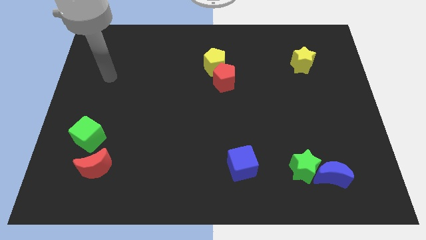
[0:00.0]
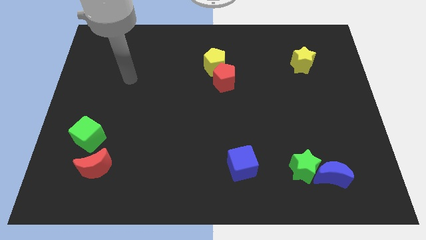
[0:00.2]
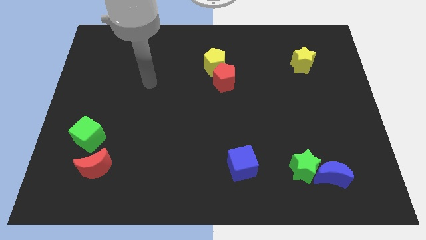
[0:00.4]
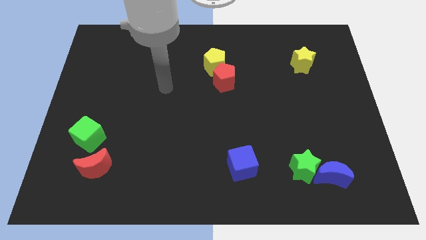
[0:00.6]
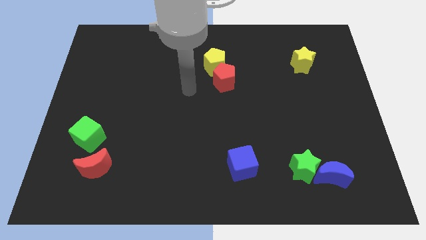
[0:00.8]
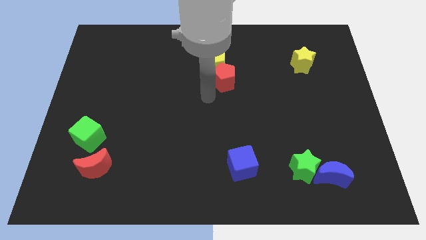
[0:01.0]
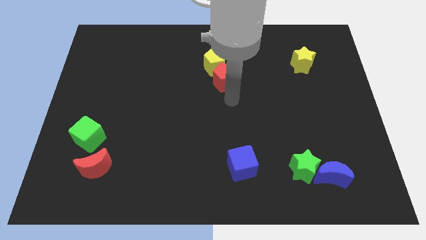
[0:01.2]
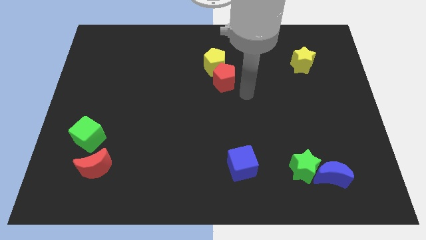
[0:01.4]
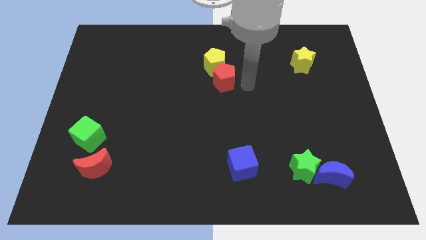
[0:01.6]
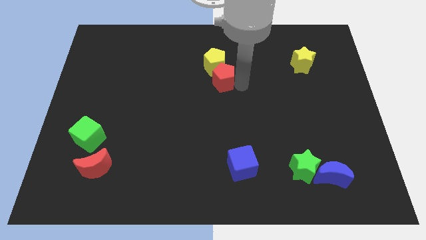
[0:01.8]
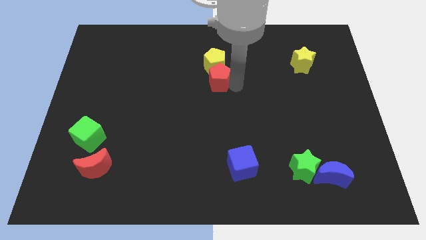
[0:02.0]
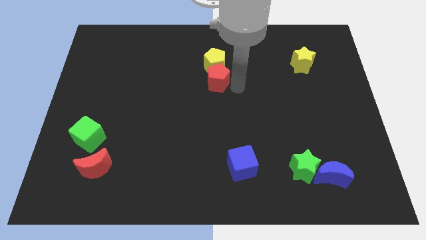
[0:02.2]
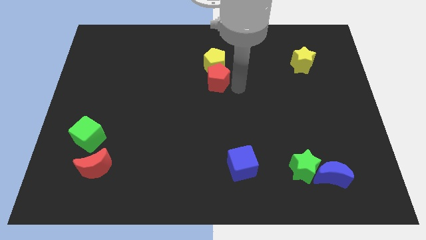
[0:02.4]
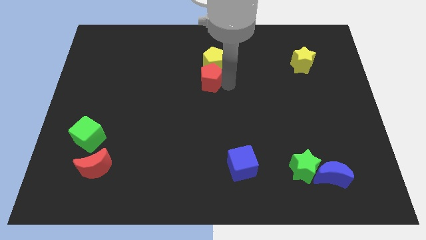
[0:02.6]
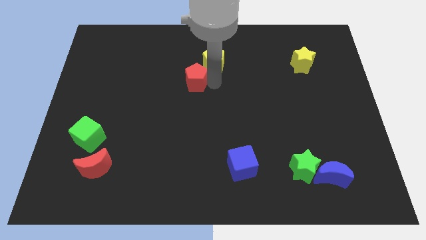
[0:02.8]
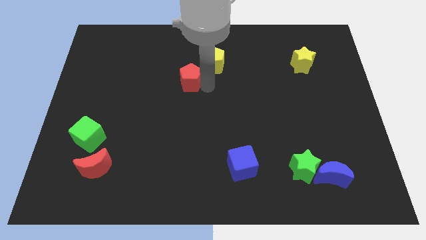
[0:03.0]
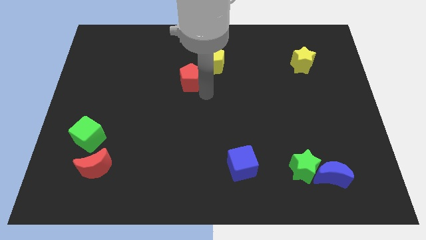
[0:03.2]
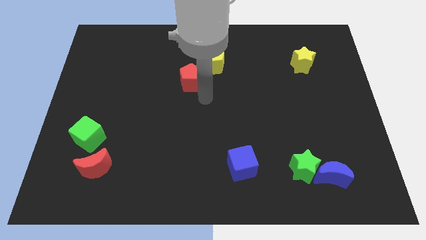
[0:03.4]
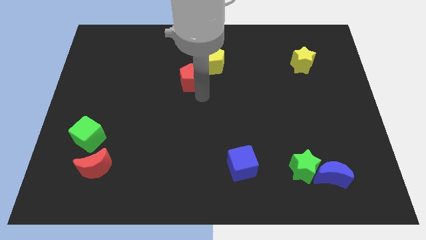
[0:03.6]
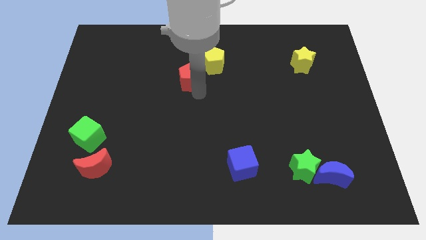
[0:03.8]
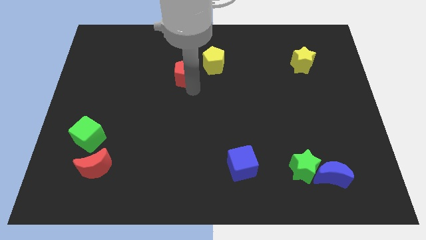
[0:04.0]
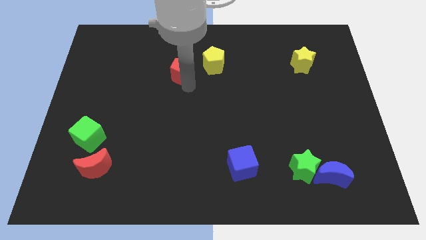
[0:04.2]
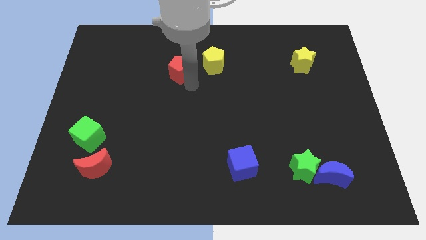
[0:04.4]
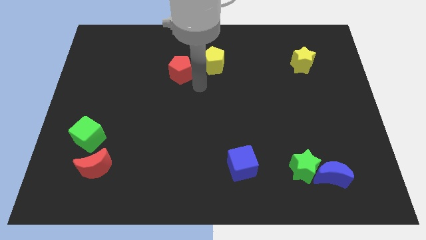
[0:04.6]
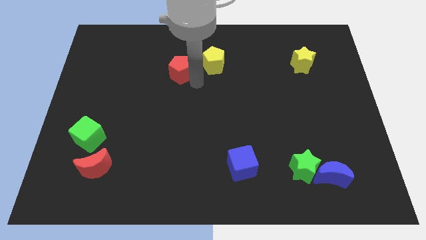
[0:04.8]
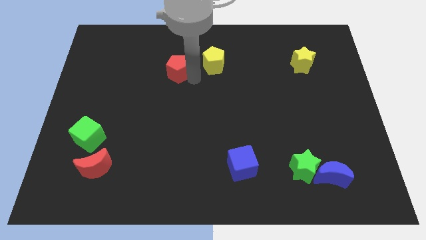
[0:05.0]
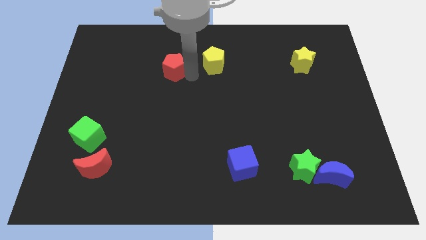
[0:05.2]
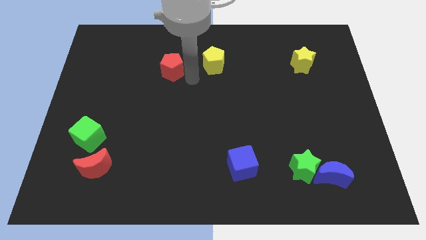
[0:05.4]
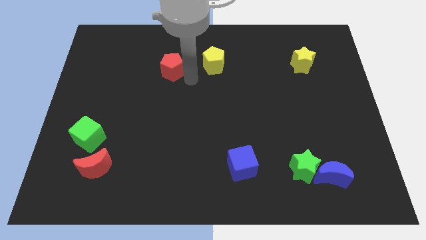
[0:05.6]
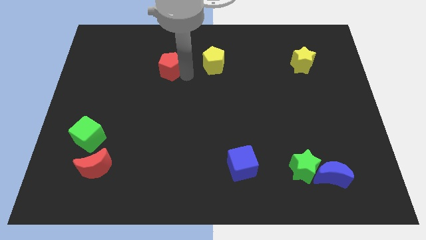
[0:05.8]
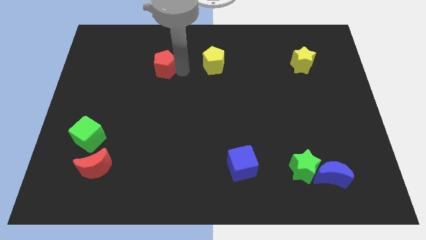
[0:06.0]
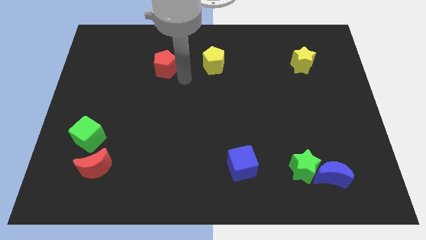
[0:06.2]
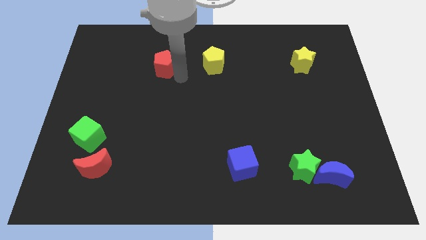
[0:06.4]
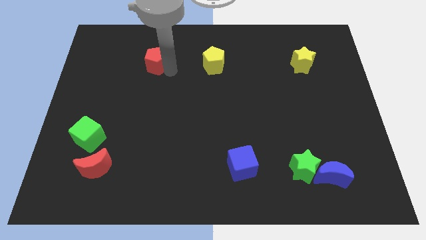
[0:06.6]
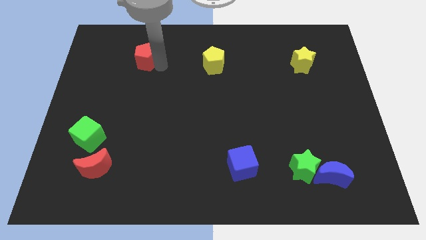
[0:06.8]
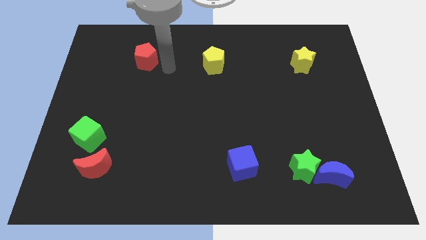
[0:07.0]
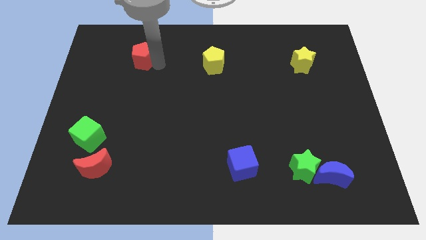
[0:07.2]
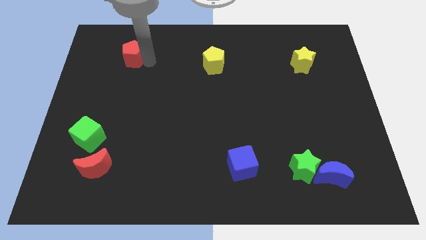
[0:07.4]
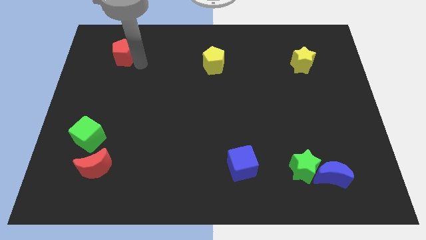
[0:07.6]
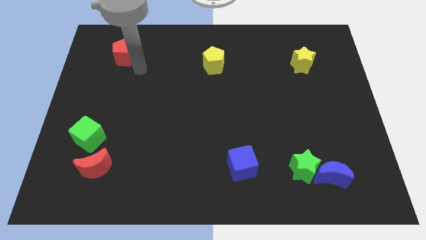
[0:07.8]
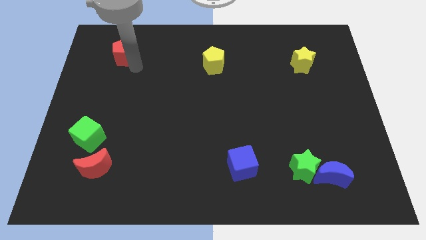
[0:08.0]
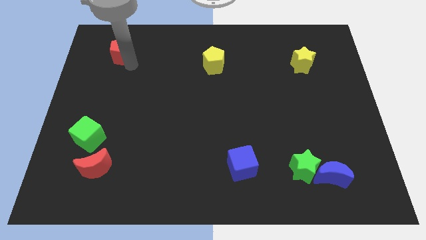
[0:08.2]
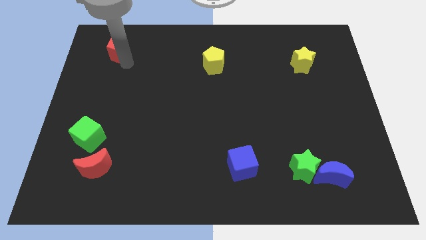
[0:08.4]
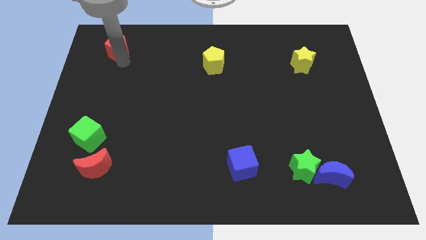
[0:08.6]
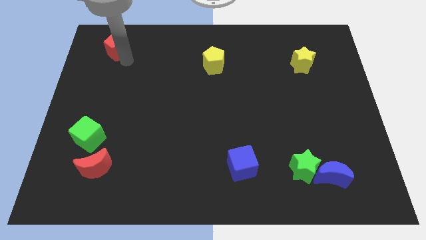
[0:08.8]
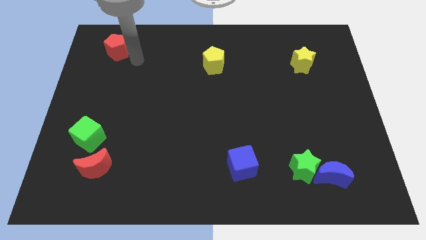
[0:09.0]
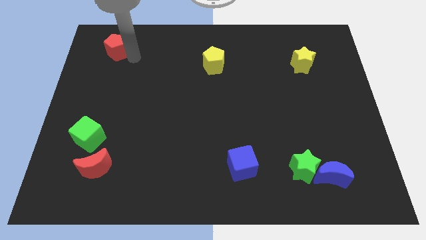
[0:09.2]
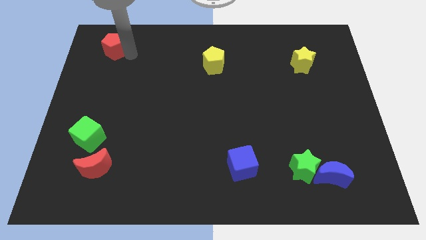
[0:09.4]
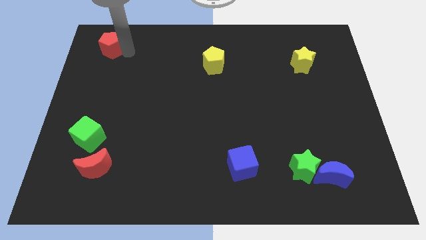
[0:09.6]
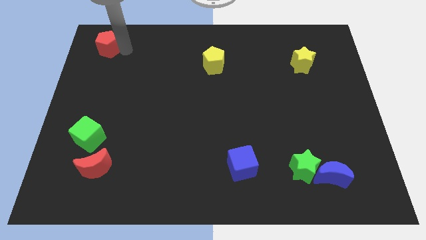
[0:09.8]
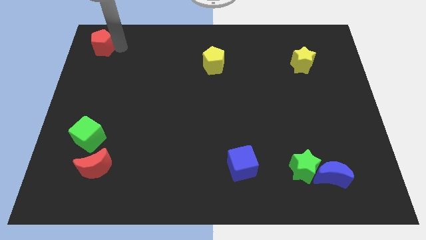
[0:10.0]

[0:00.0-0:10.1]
move the red pentagon to the top left of the board

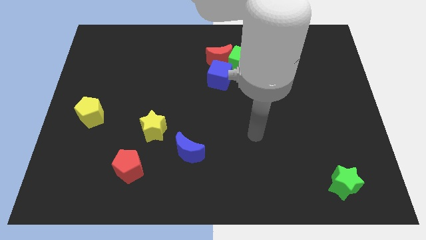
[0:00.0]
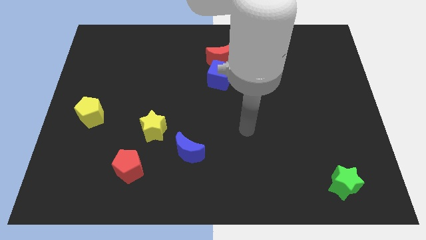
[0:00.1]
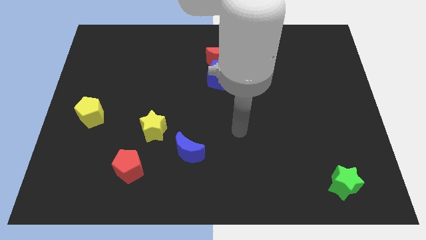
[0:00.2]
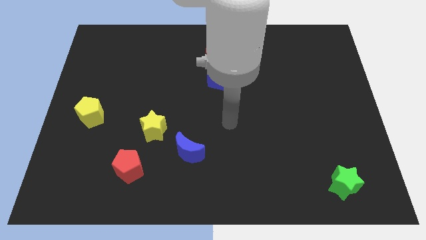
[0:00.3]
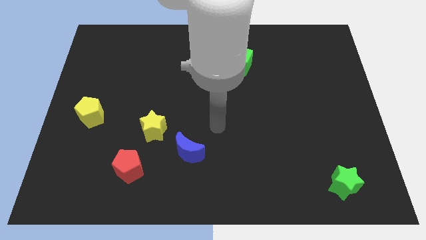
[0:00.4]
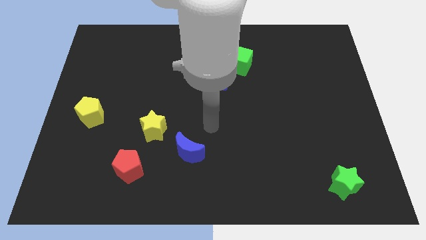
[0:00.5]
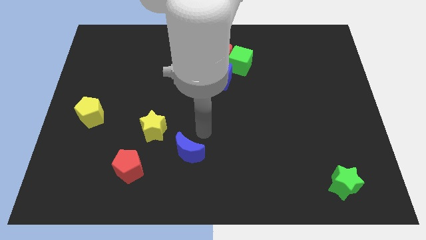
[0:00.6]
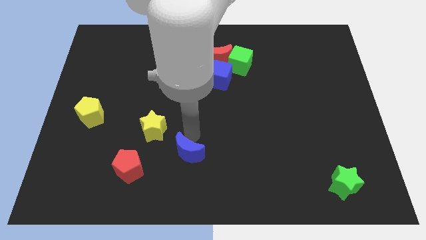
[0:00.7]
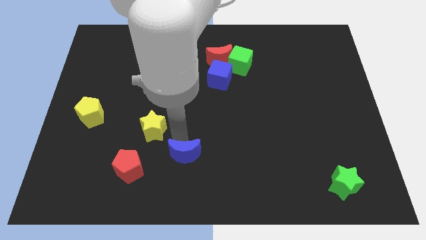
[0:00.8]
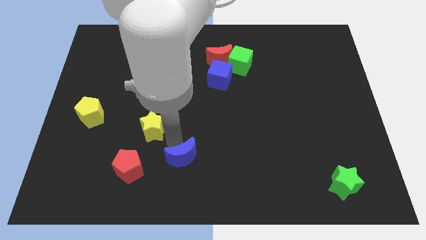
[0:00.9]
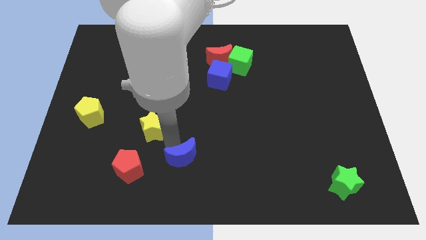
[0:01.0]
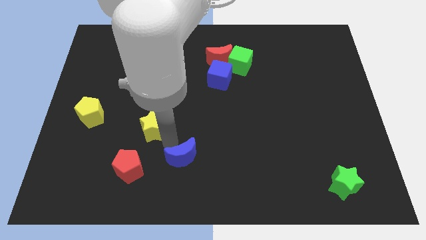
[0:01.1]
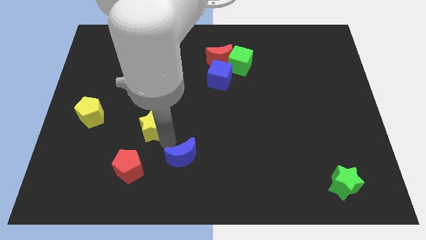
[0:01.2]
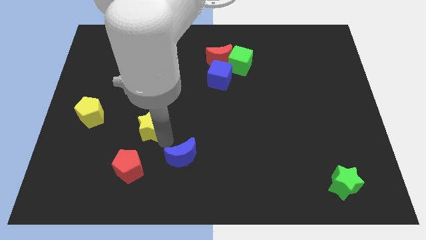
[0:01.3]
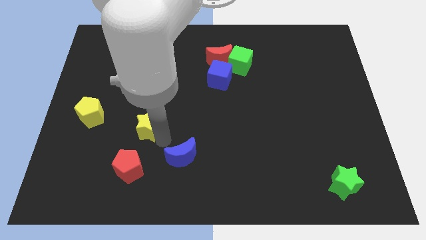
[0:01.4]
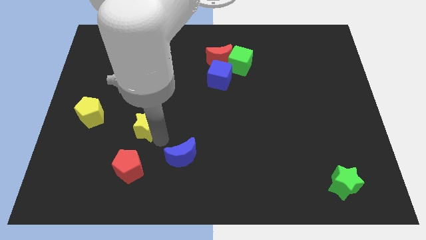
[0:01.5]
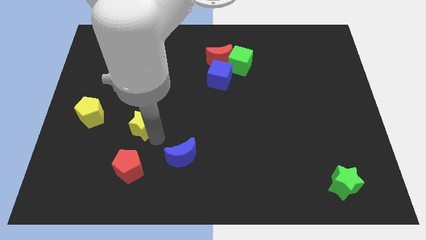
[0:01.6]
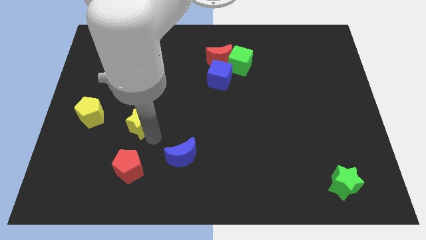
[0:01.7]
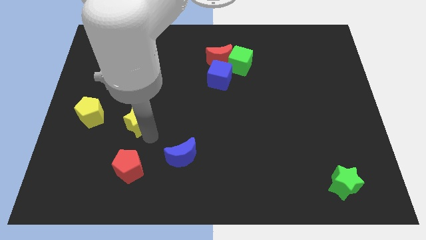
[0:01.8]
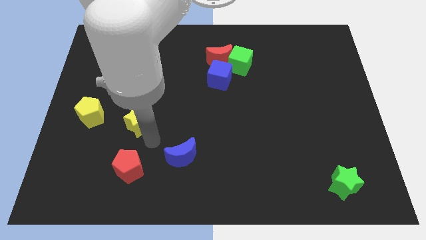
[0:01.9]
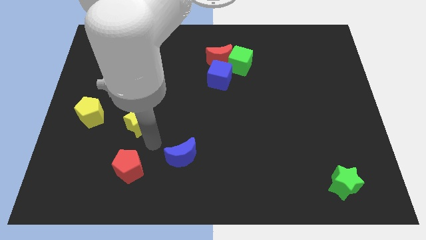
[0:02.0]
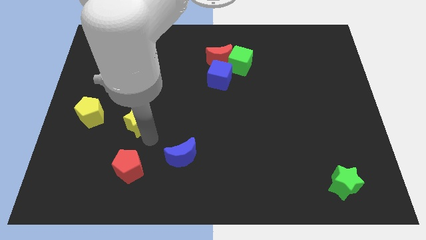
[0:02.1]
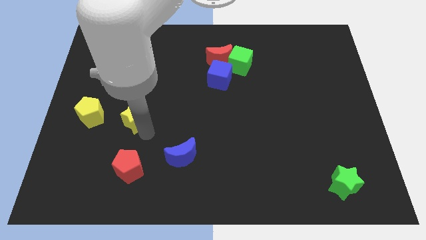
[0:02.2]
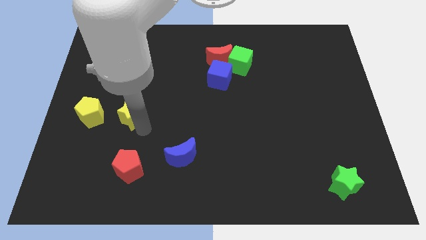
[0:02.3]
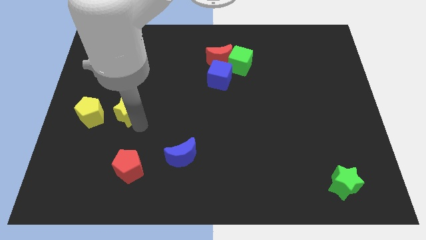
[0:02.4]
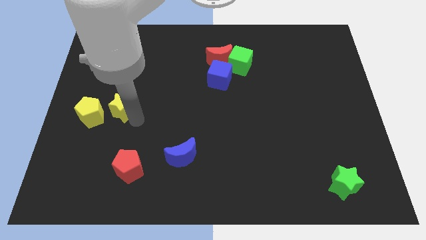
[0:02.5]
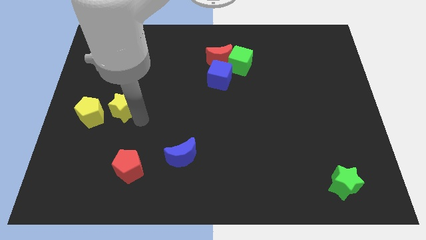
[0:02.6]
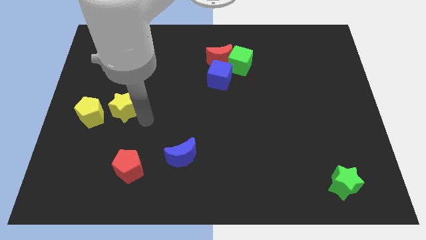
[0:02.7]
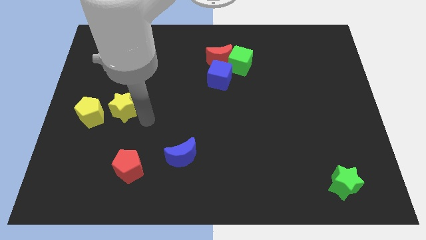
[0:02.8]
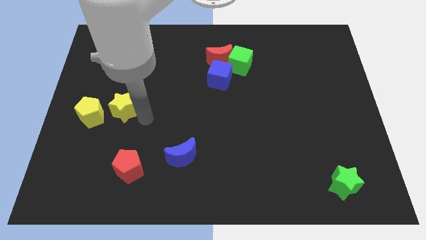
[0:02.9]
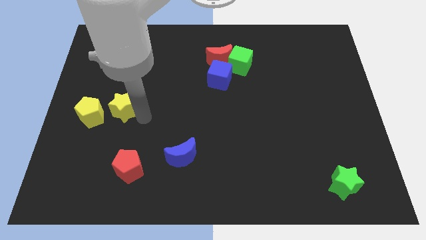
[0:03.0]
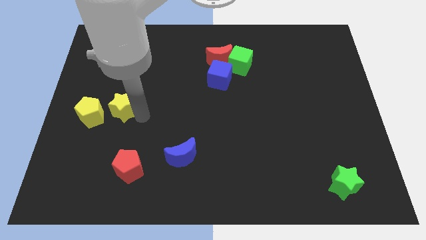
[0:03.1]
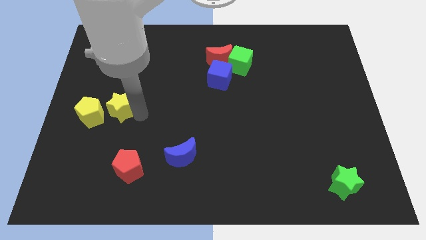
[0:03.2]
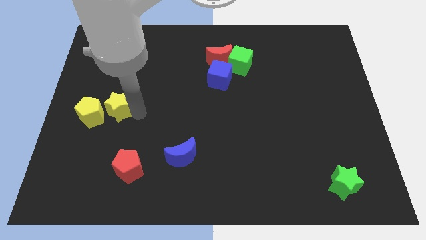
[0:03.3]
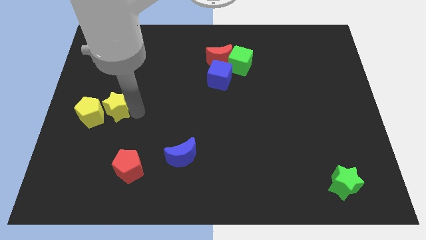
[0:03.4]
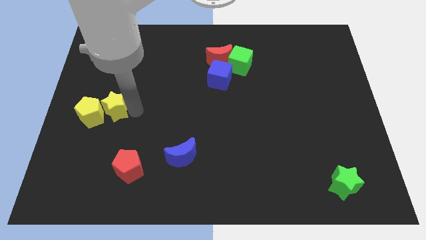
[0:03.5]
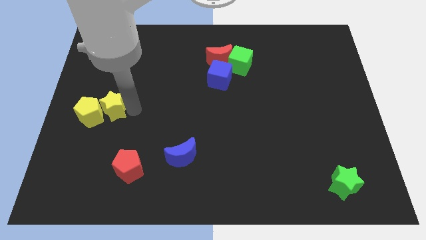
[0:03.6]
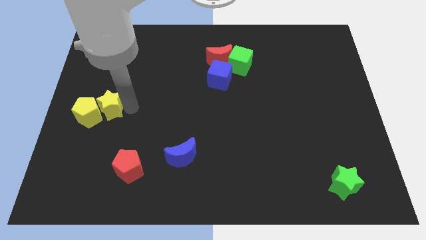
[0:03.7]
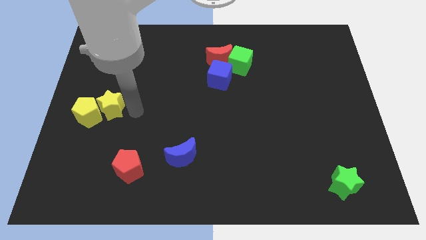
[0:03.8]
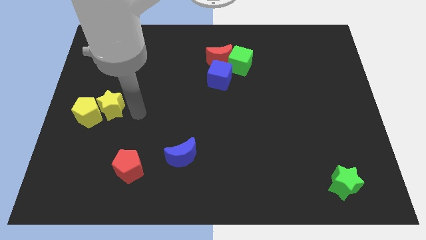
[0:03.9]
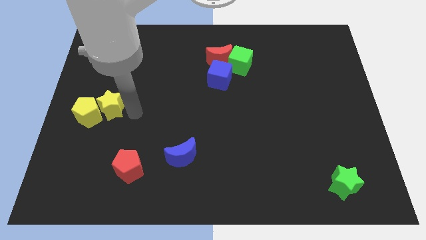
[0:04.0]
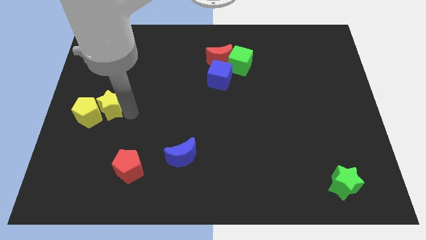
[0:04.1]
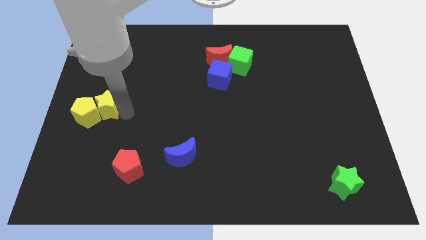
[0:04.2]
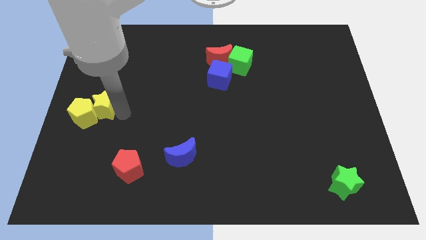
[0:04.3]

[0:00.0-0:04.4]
move the yellow star to the left side
